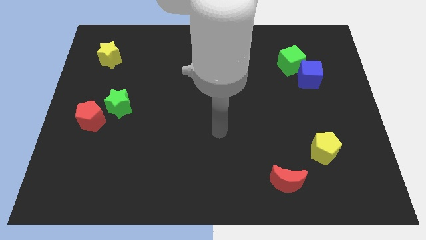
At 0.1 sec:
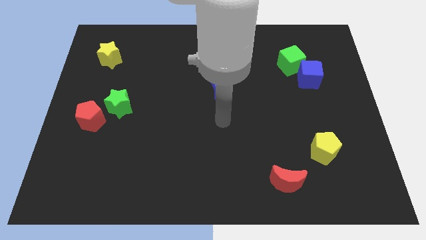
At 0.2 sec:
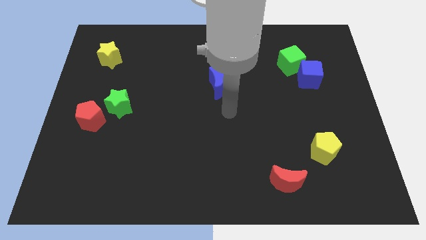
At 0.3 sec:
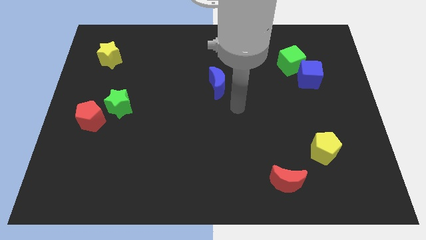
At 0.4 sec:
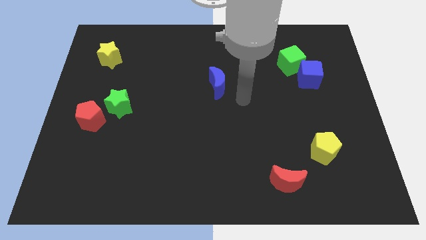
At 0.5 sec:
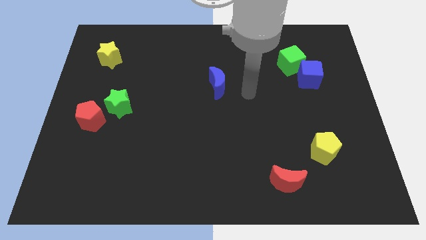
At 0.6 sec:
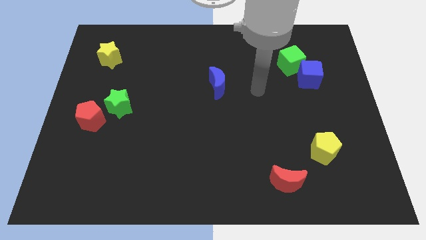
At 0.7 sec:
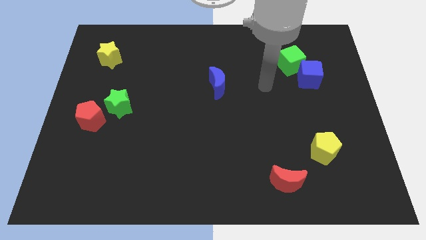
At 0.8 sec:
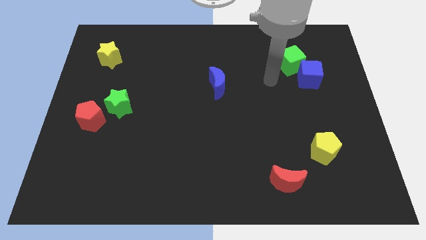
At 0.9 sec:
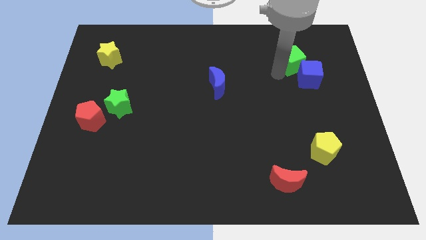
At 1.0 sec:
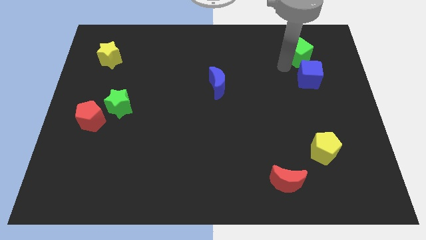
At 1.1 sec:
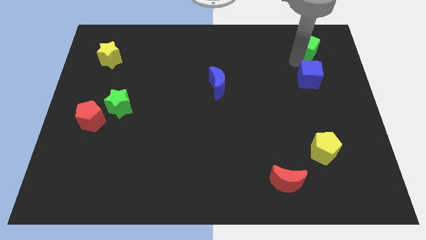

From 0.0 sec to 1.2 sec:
pull the blue cube apart from the green cube

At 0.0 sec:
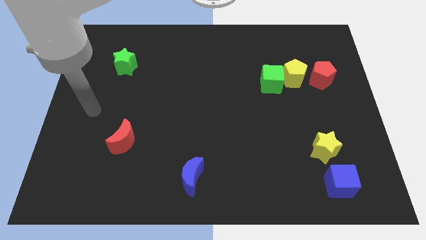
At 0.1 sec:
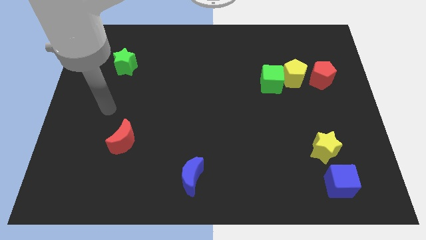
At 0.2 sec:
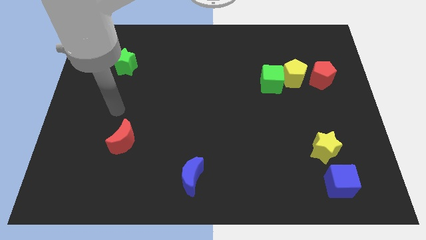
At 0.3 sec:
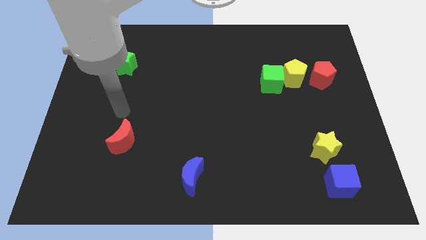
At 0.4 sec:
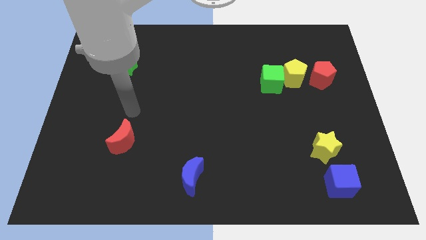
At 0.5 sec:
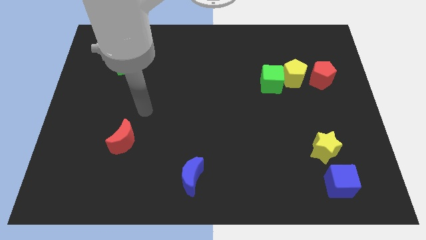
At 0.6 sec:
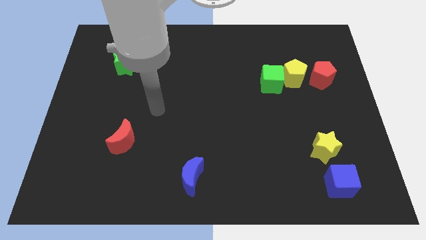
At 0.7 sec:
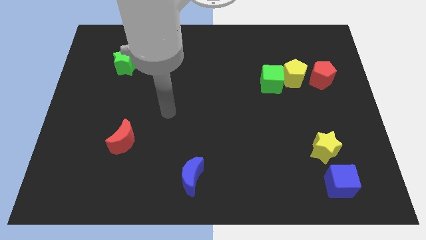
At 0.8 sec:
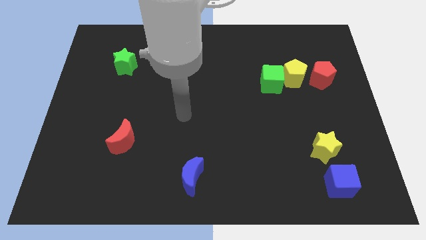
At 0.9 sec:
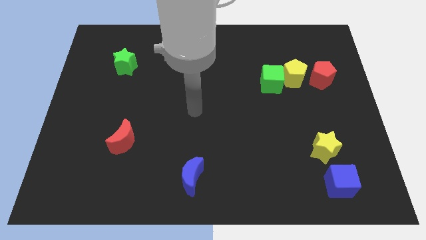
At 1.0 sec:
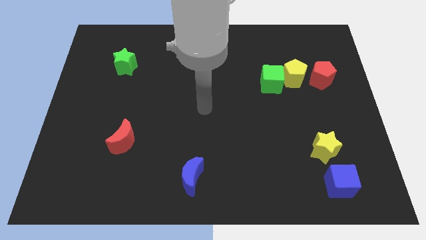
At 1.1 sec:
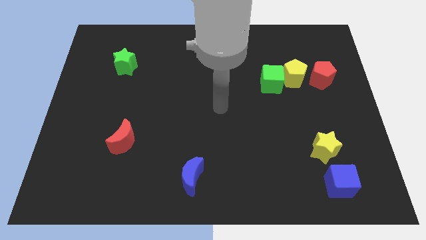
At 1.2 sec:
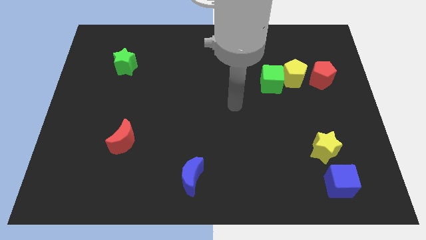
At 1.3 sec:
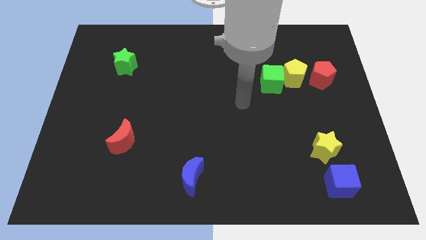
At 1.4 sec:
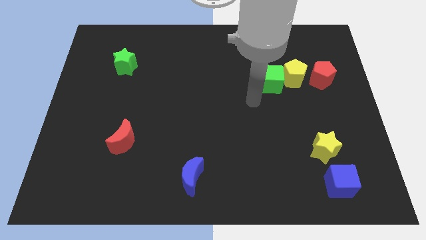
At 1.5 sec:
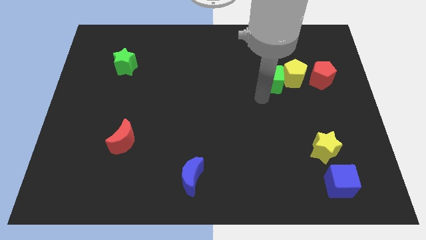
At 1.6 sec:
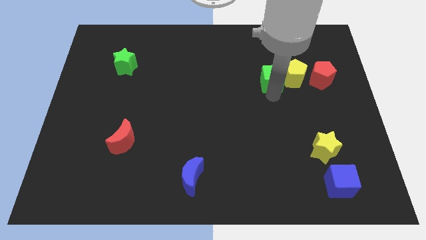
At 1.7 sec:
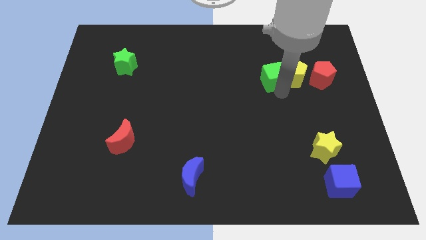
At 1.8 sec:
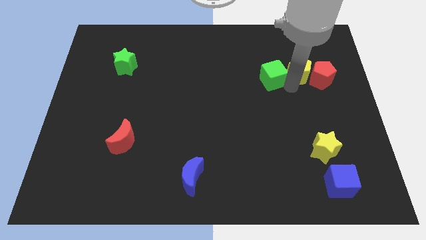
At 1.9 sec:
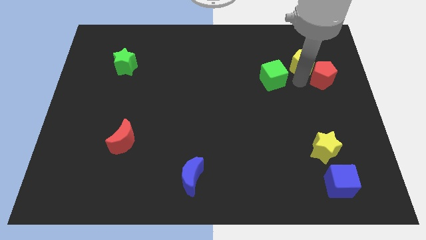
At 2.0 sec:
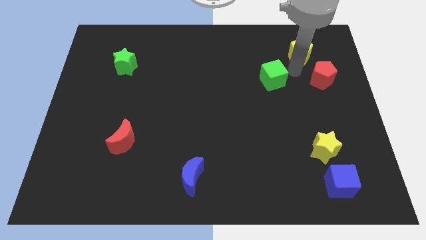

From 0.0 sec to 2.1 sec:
pull the green cube apart from the yellow pentagon

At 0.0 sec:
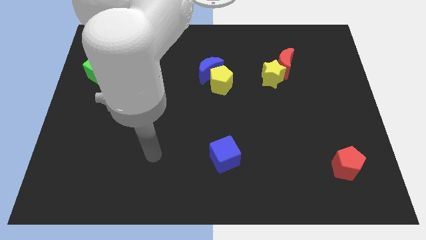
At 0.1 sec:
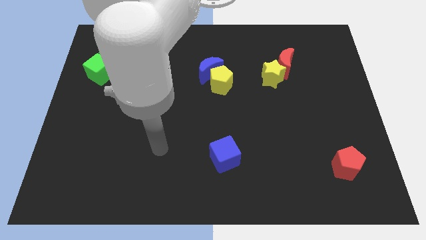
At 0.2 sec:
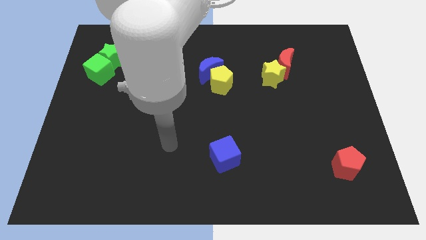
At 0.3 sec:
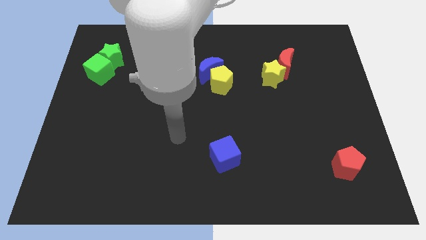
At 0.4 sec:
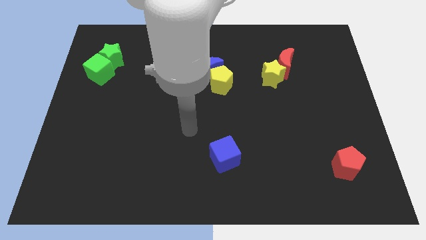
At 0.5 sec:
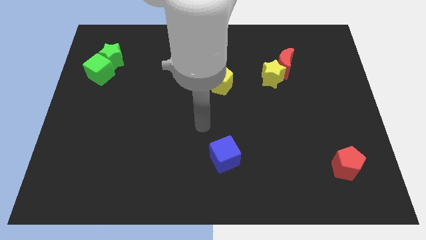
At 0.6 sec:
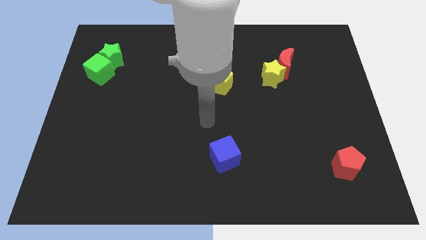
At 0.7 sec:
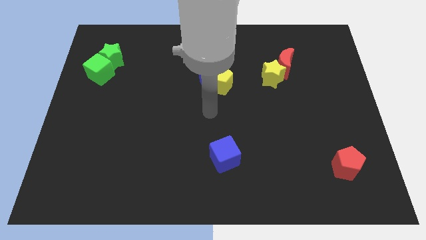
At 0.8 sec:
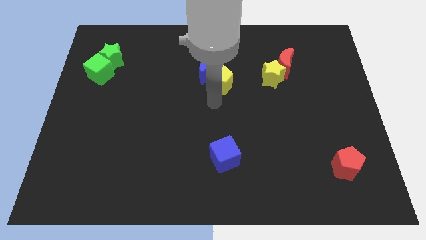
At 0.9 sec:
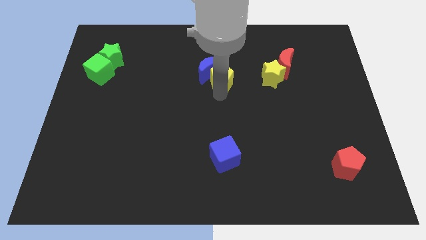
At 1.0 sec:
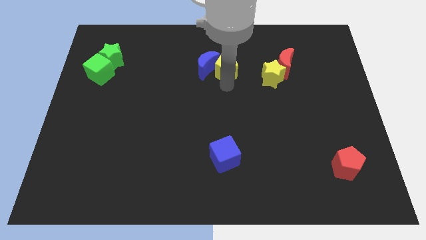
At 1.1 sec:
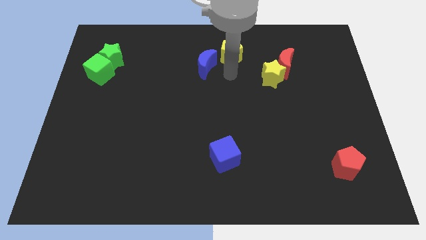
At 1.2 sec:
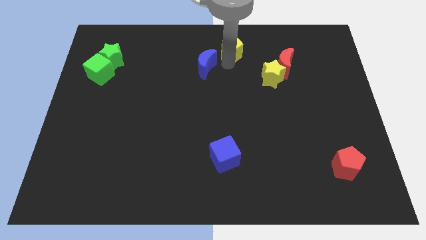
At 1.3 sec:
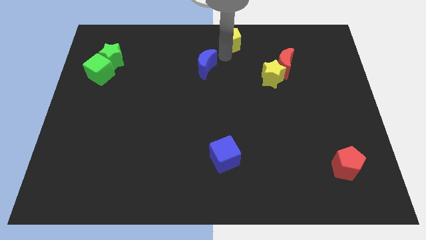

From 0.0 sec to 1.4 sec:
pull the blue moon apart from the yellow pentagon

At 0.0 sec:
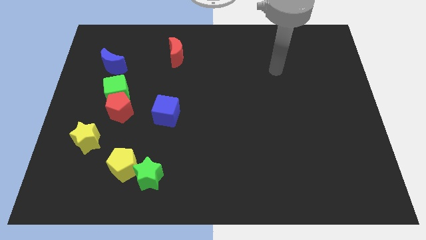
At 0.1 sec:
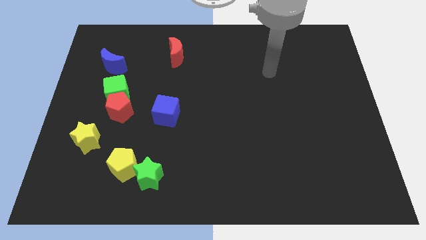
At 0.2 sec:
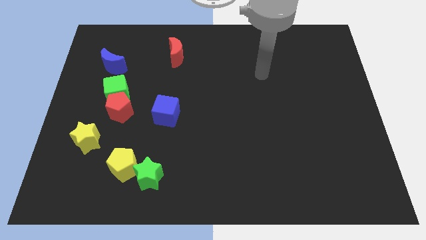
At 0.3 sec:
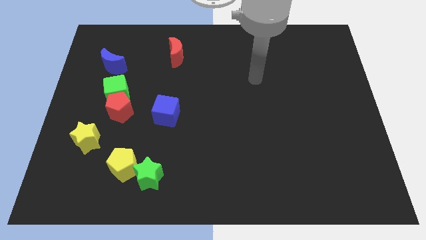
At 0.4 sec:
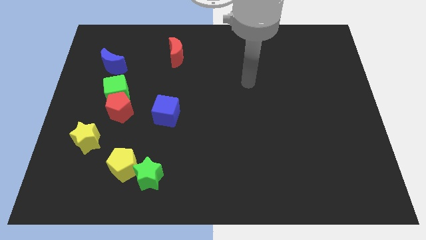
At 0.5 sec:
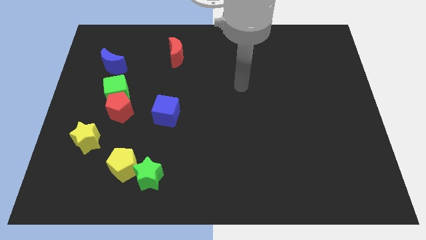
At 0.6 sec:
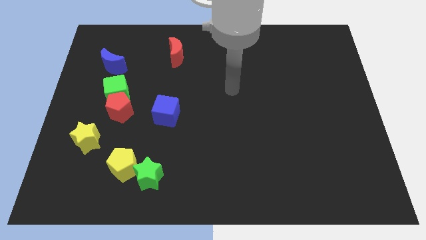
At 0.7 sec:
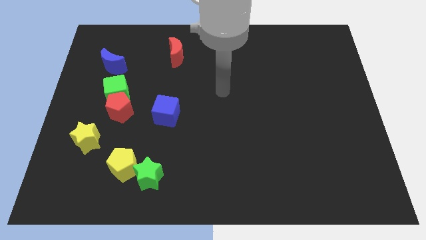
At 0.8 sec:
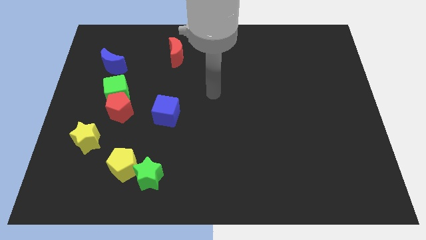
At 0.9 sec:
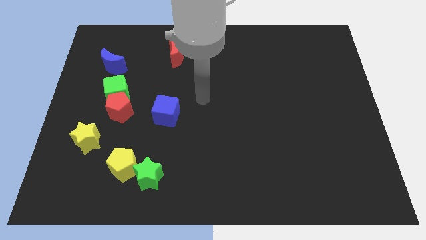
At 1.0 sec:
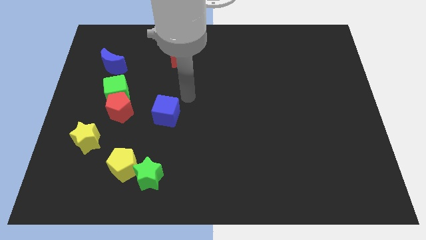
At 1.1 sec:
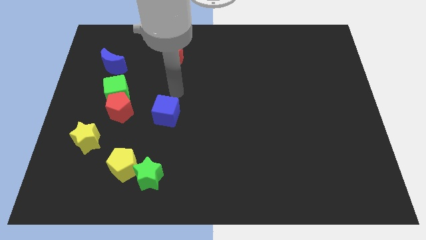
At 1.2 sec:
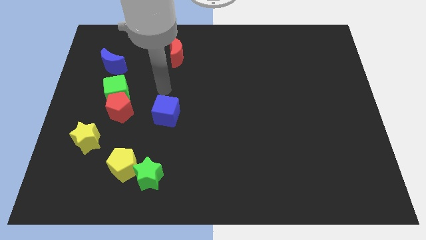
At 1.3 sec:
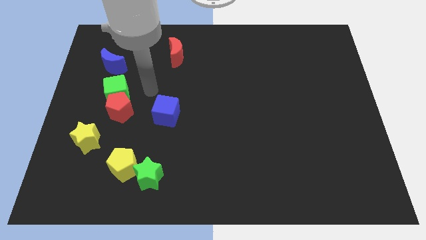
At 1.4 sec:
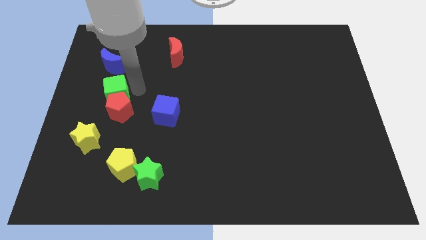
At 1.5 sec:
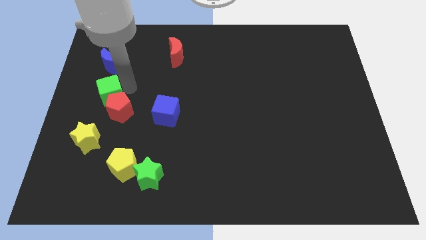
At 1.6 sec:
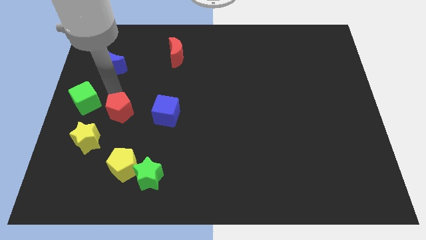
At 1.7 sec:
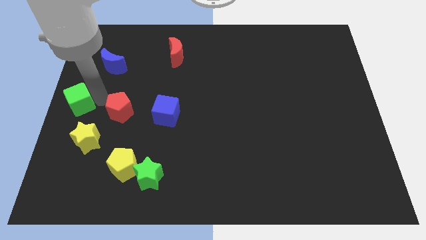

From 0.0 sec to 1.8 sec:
pull the red pentagon apart from the green cube

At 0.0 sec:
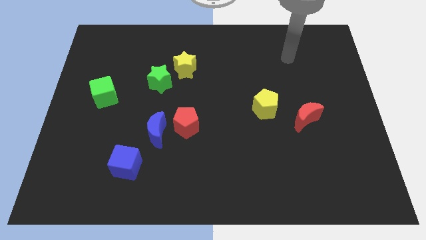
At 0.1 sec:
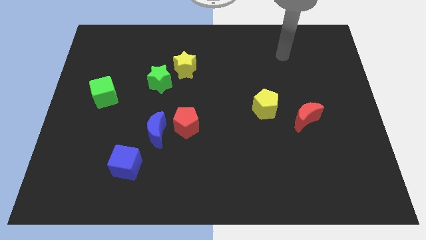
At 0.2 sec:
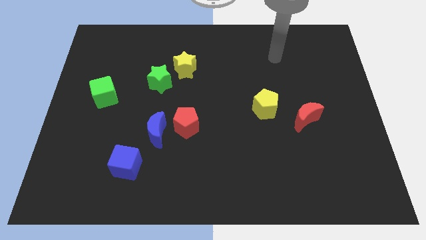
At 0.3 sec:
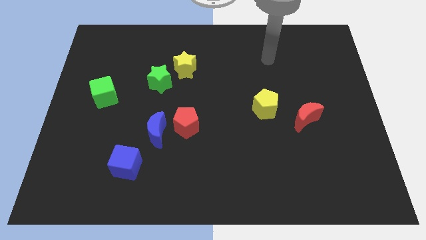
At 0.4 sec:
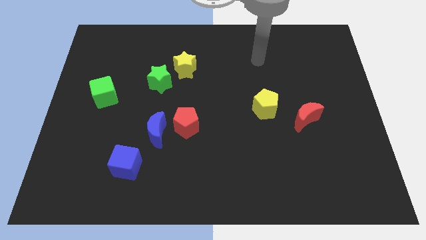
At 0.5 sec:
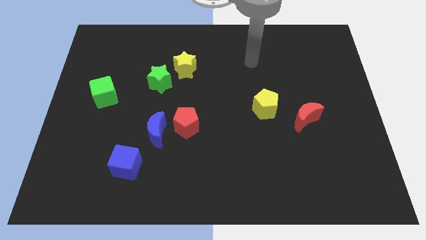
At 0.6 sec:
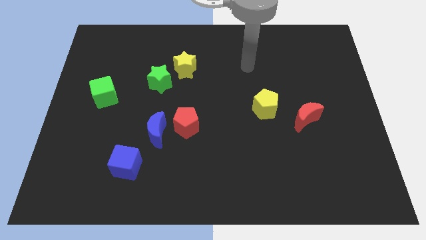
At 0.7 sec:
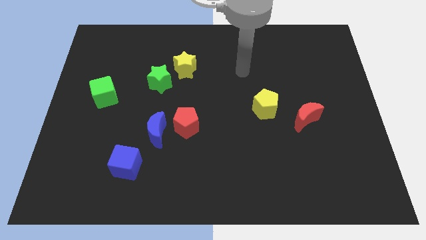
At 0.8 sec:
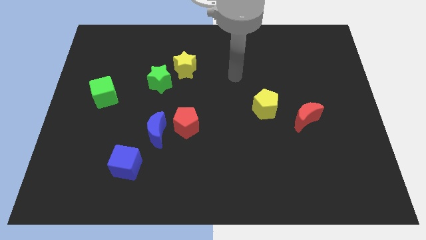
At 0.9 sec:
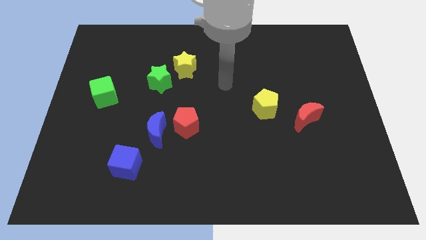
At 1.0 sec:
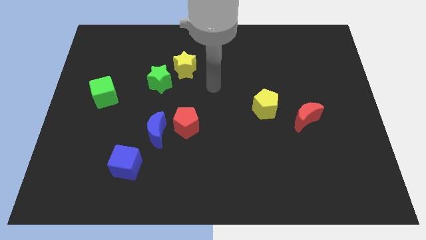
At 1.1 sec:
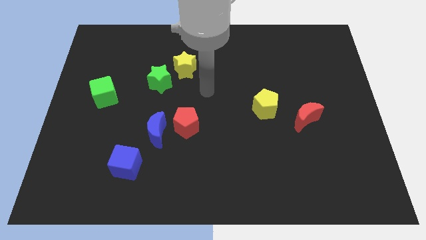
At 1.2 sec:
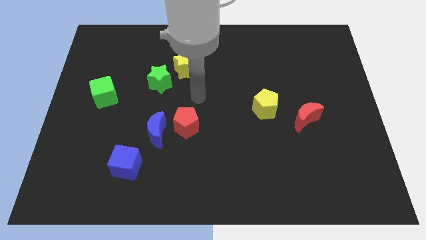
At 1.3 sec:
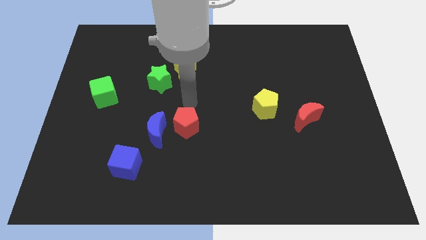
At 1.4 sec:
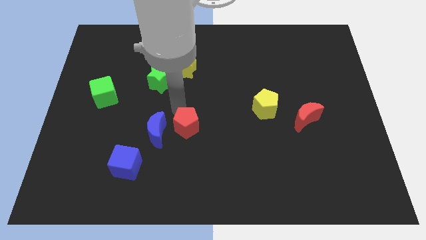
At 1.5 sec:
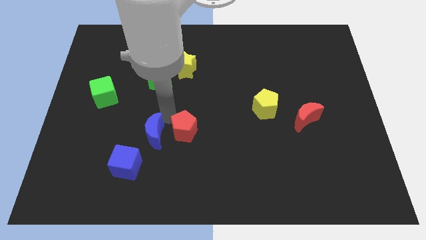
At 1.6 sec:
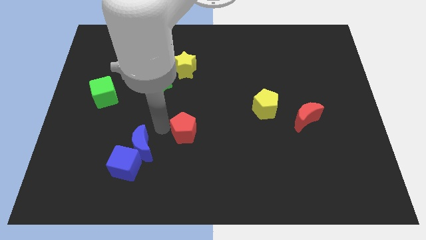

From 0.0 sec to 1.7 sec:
pull the red pentagon apart from the blue moon

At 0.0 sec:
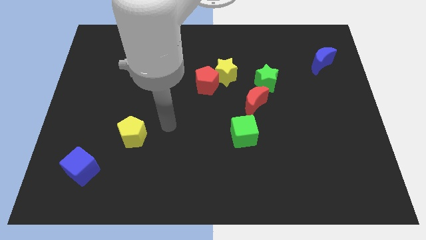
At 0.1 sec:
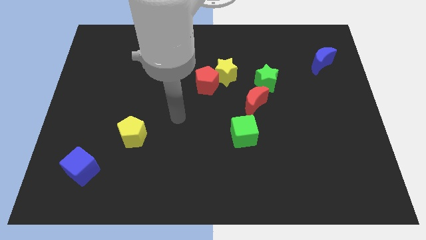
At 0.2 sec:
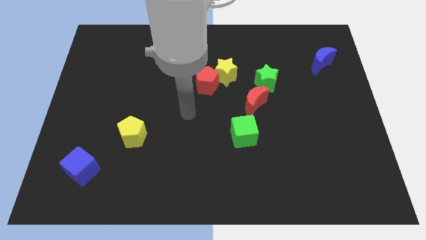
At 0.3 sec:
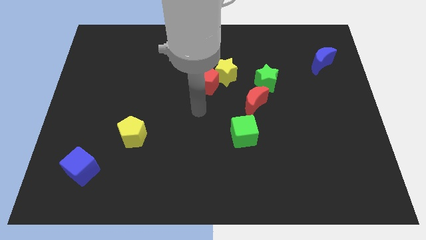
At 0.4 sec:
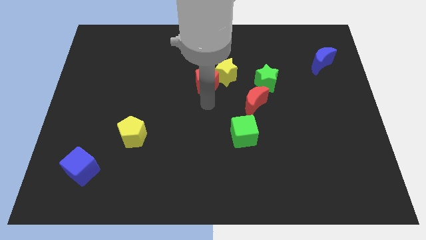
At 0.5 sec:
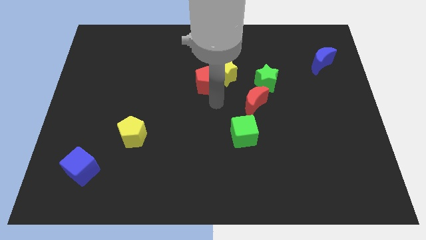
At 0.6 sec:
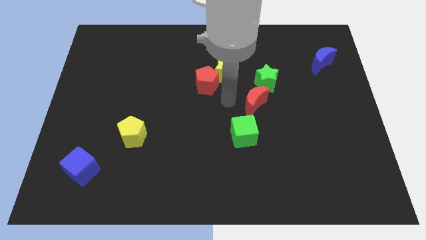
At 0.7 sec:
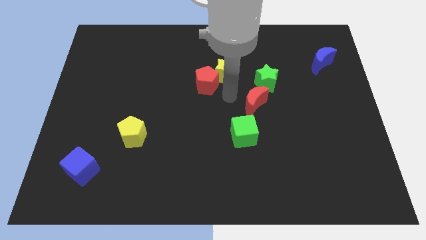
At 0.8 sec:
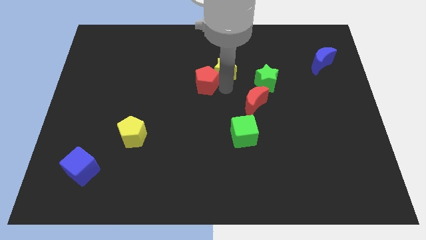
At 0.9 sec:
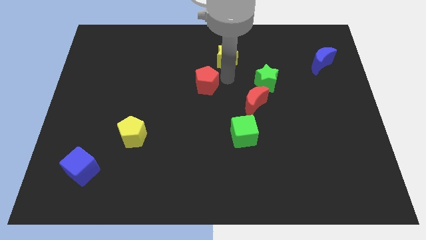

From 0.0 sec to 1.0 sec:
pull the red pentagon apart from the yellow star
